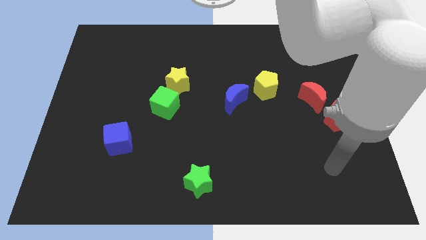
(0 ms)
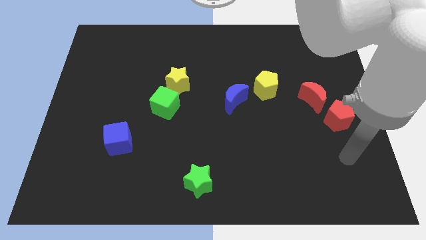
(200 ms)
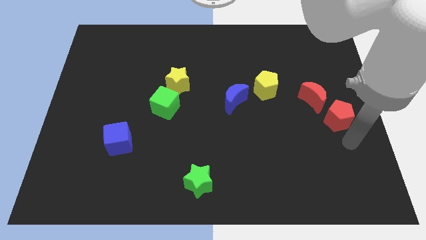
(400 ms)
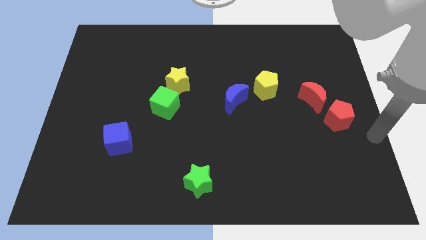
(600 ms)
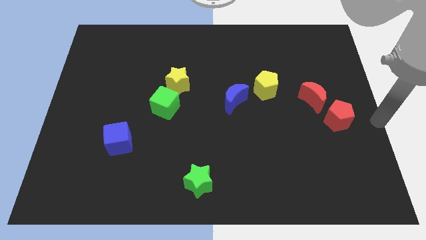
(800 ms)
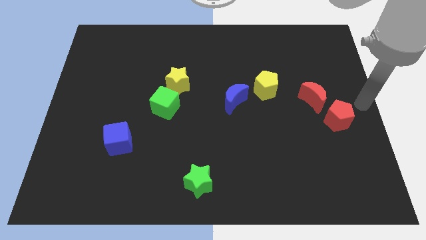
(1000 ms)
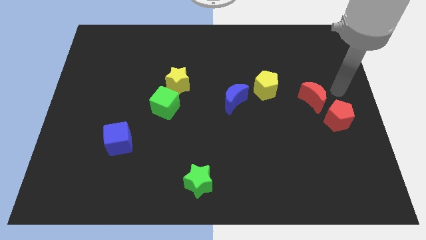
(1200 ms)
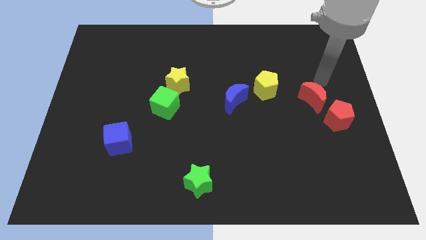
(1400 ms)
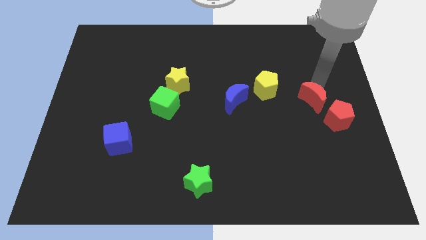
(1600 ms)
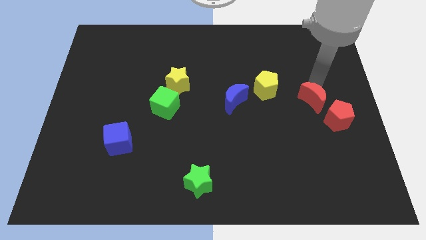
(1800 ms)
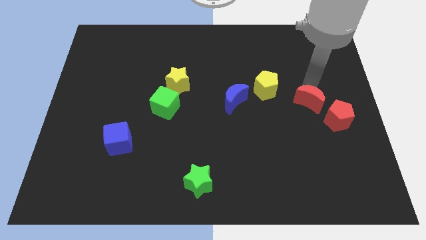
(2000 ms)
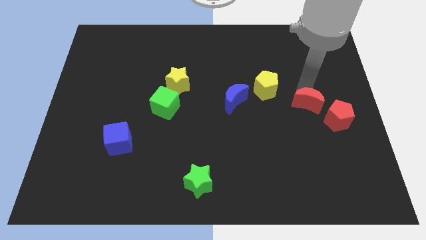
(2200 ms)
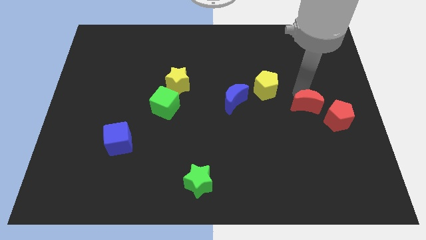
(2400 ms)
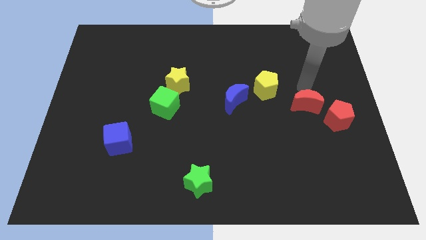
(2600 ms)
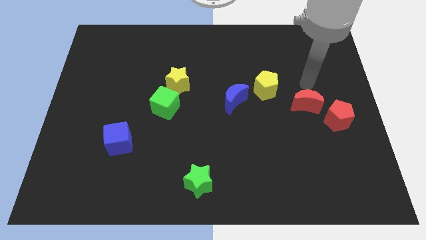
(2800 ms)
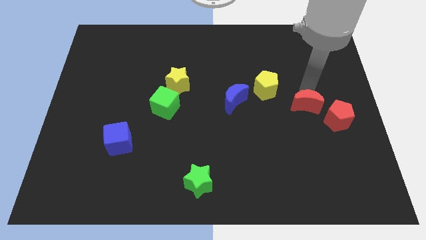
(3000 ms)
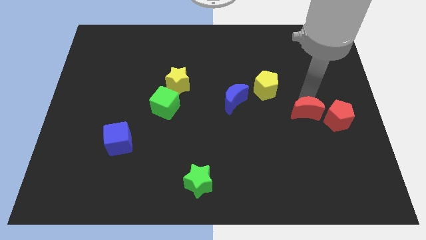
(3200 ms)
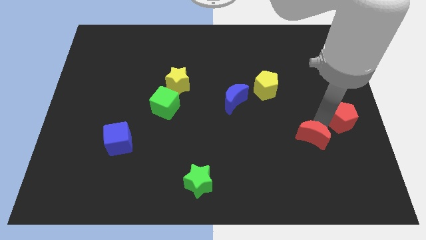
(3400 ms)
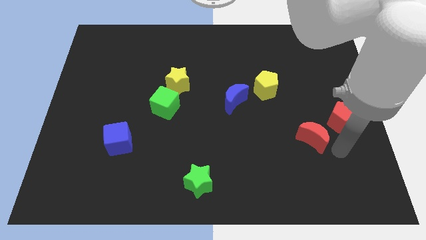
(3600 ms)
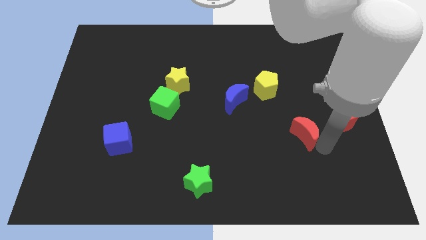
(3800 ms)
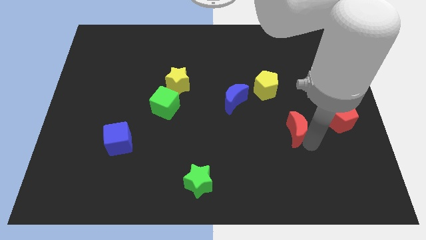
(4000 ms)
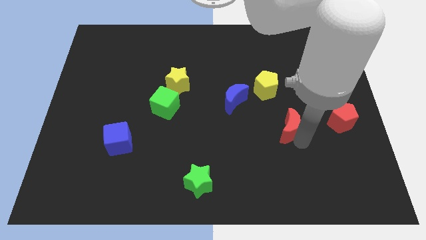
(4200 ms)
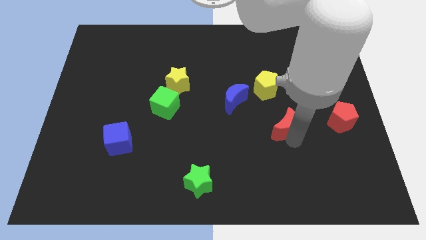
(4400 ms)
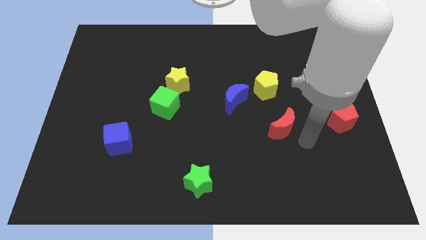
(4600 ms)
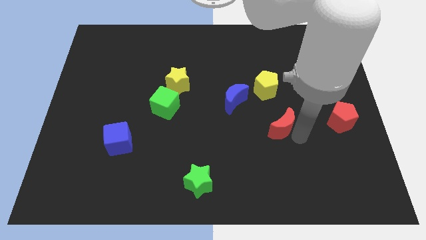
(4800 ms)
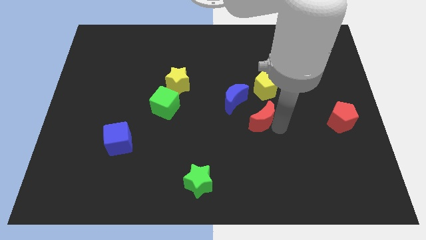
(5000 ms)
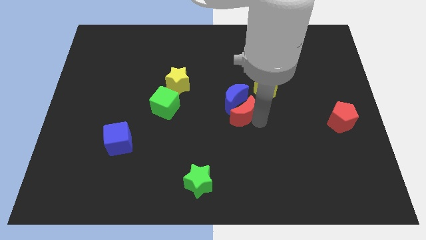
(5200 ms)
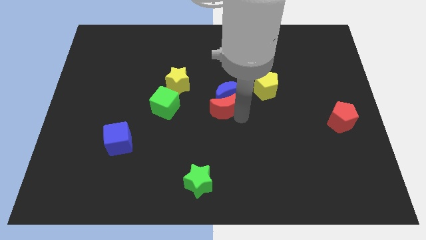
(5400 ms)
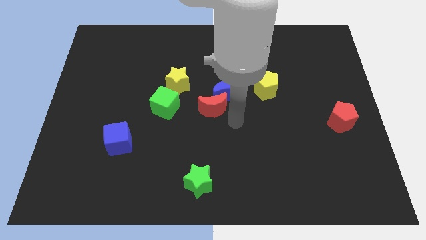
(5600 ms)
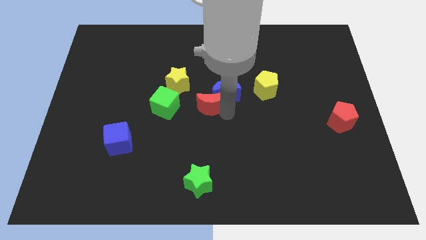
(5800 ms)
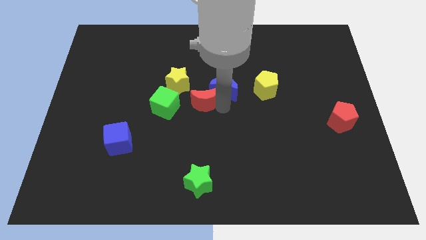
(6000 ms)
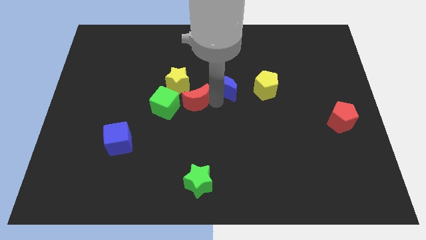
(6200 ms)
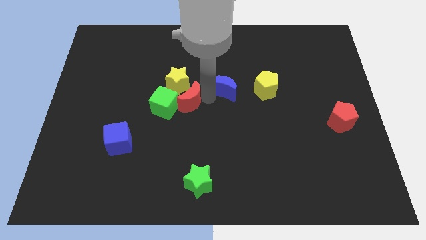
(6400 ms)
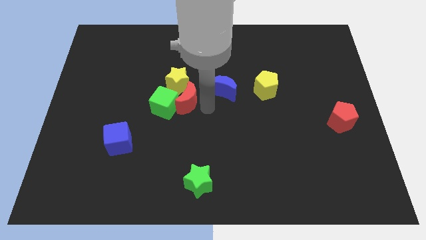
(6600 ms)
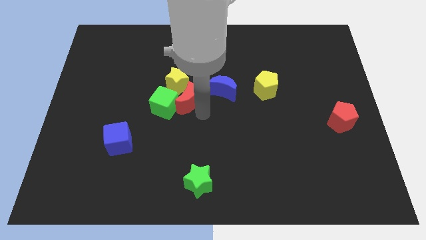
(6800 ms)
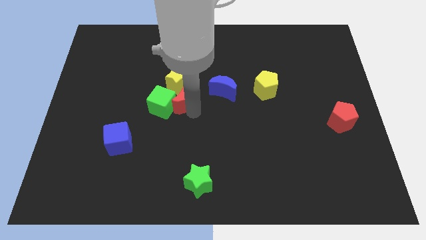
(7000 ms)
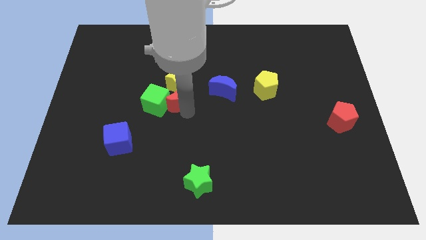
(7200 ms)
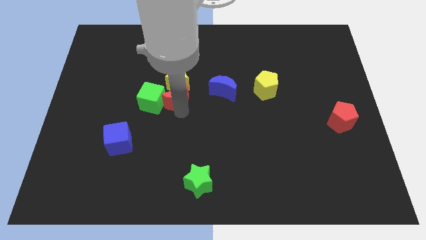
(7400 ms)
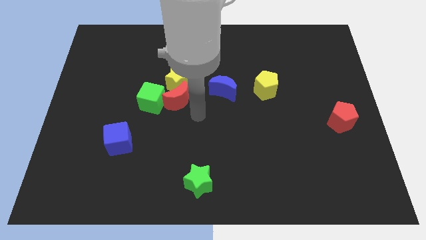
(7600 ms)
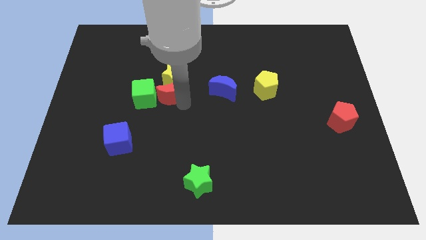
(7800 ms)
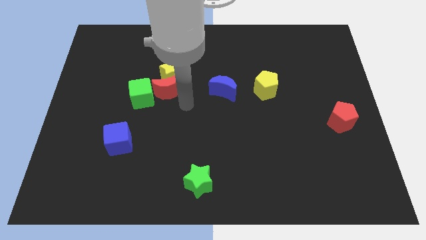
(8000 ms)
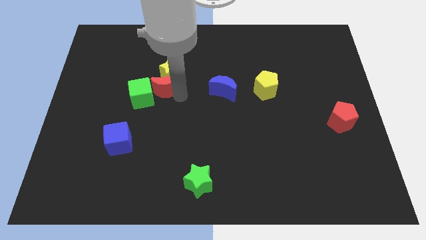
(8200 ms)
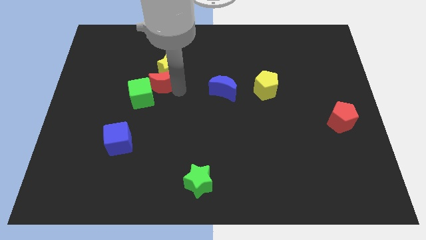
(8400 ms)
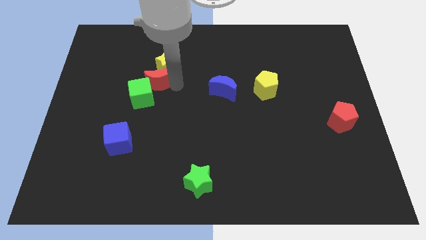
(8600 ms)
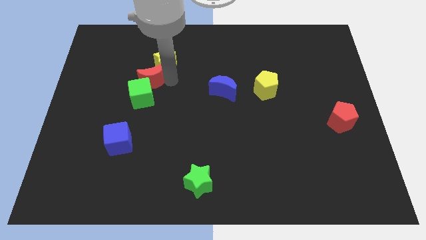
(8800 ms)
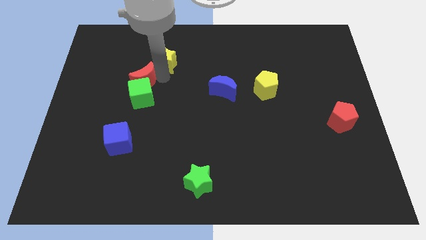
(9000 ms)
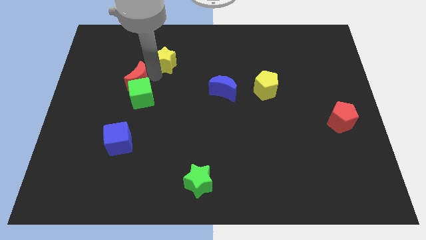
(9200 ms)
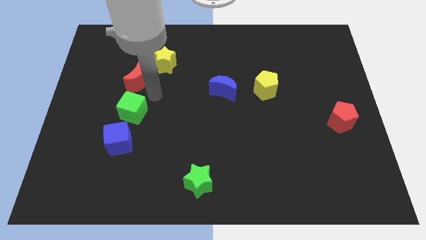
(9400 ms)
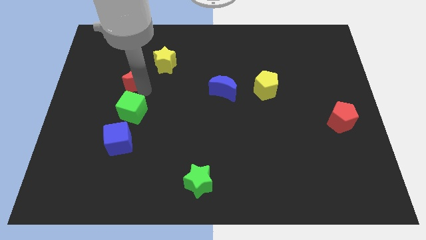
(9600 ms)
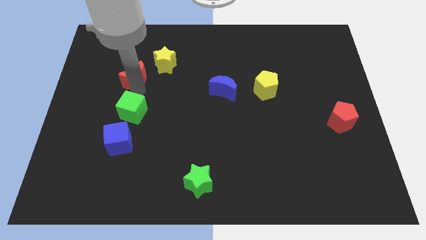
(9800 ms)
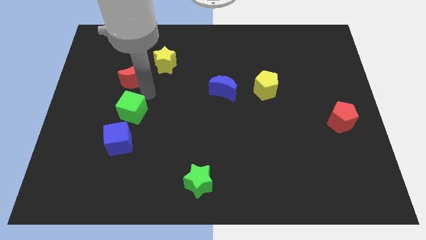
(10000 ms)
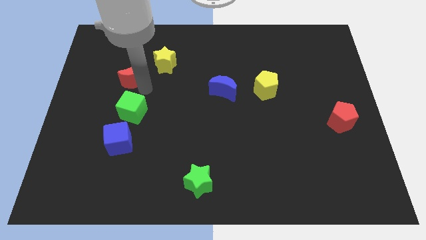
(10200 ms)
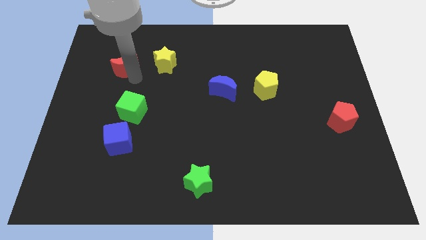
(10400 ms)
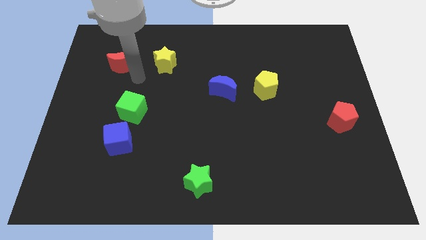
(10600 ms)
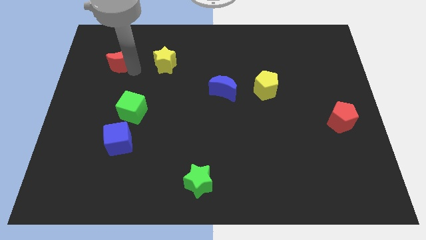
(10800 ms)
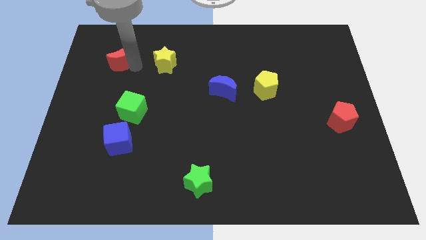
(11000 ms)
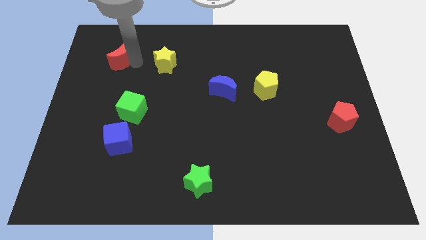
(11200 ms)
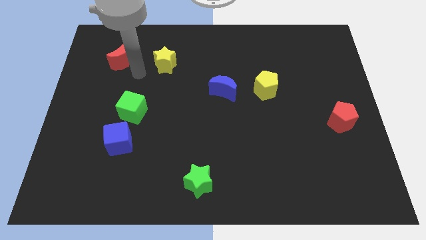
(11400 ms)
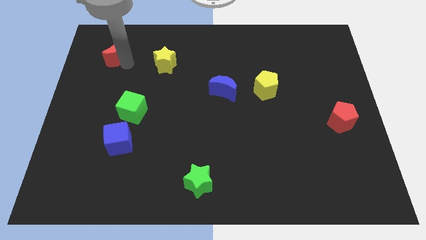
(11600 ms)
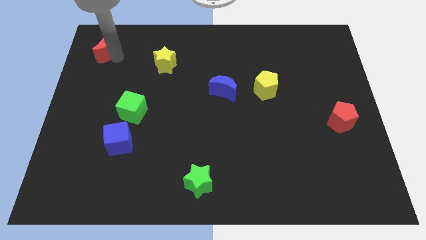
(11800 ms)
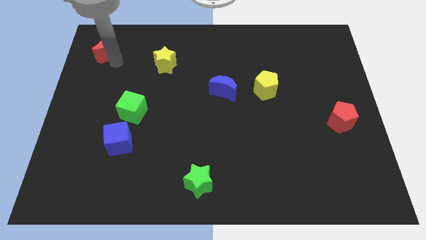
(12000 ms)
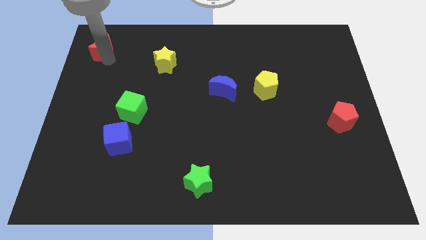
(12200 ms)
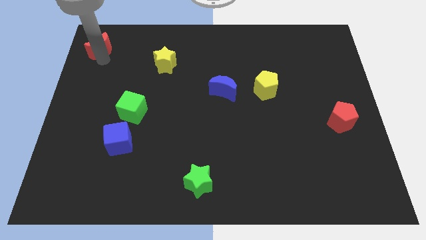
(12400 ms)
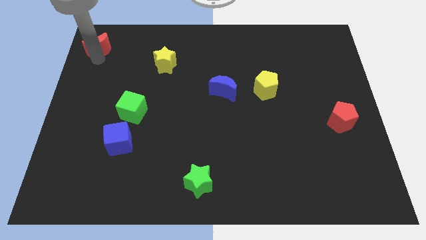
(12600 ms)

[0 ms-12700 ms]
push the red moon to the upper left corner

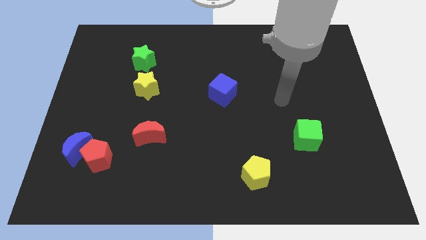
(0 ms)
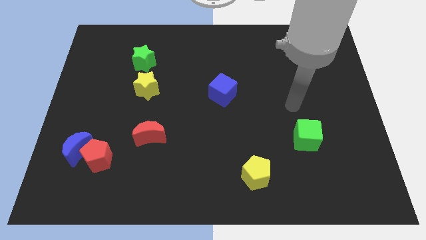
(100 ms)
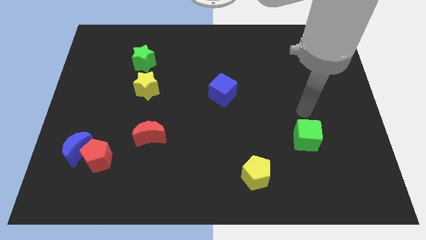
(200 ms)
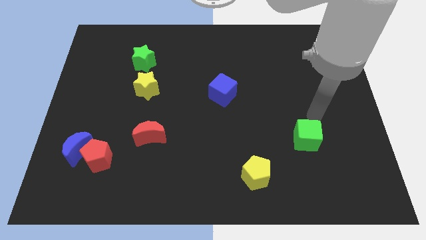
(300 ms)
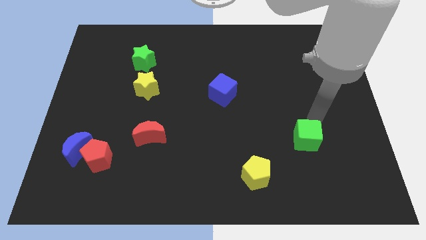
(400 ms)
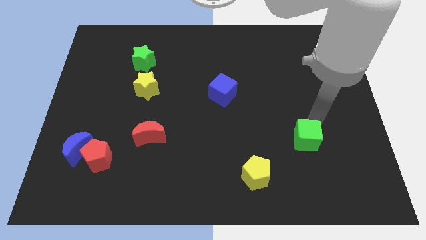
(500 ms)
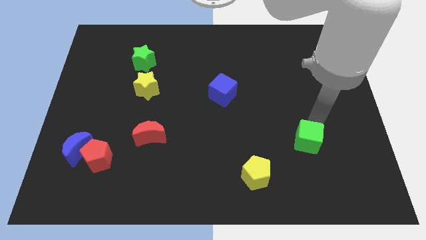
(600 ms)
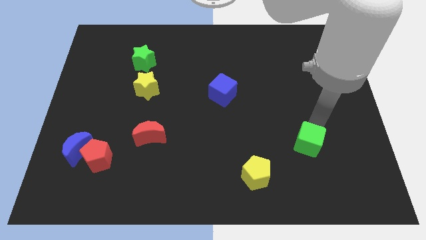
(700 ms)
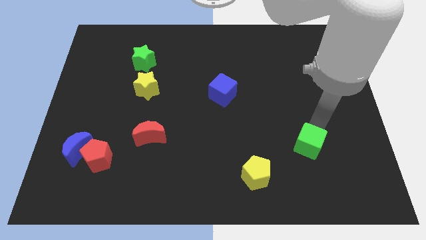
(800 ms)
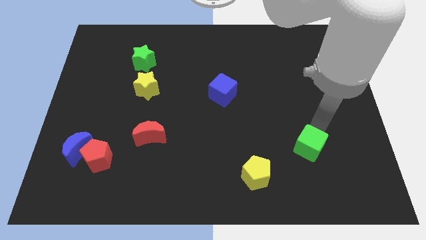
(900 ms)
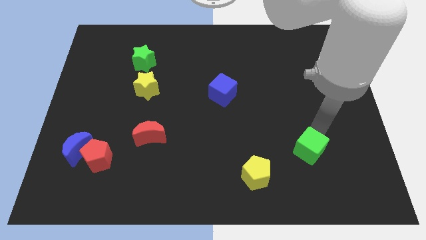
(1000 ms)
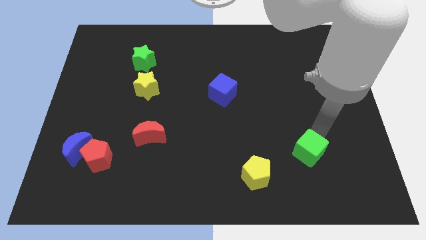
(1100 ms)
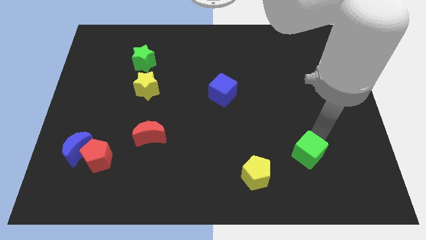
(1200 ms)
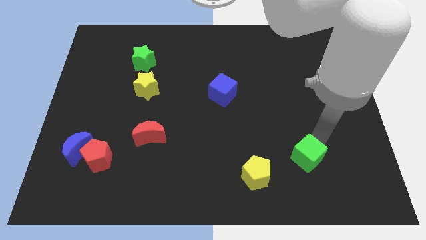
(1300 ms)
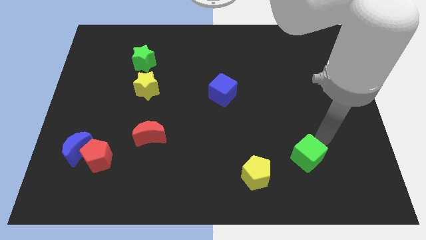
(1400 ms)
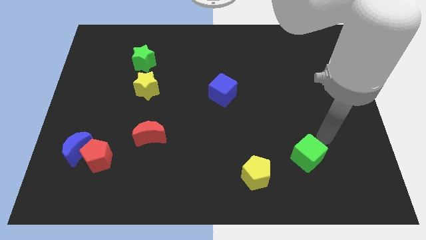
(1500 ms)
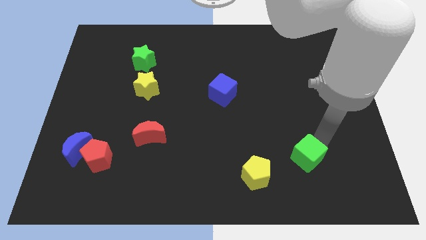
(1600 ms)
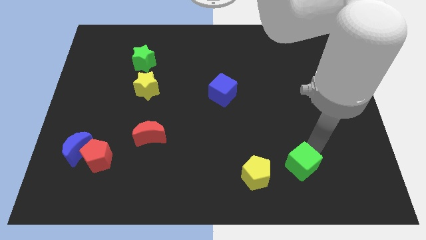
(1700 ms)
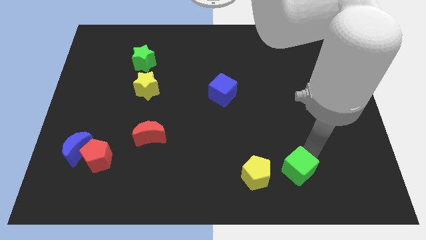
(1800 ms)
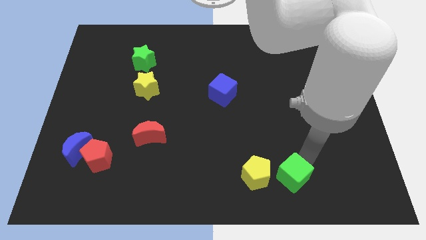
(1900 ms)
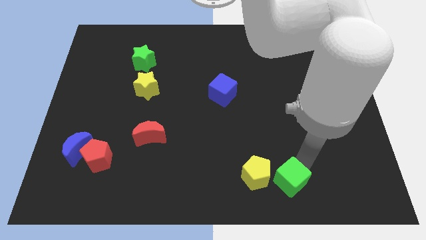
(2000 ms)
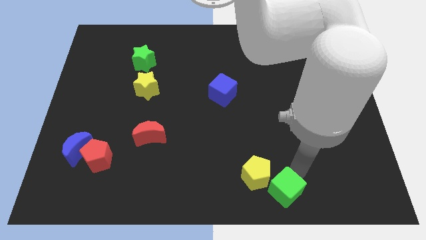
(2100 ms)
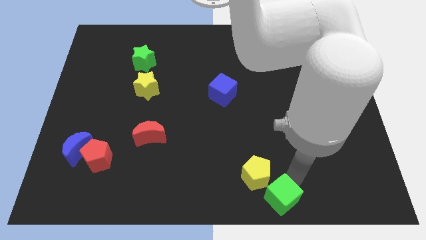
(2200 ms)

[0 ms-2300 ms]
slide the green cube to the bottom
